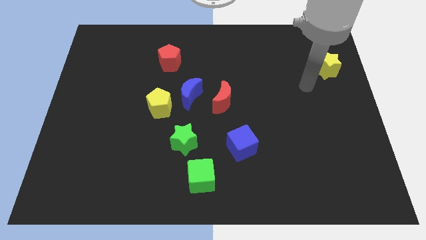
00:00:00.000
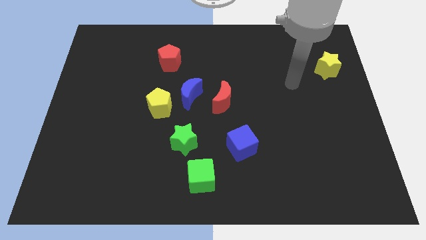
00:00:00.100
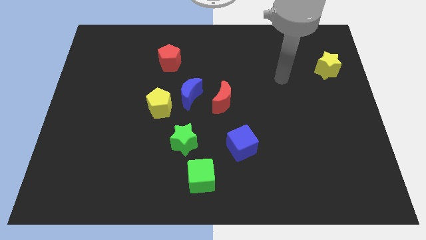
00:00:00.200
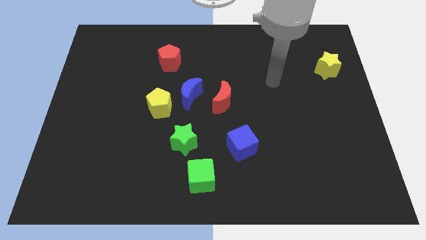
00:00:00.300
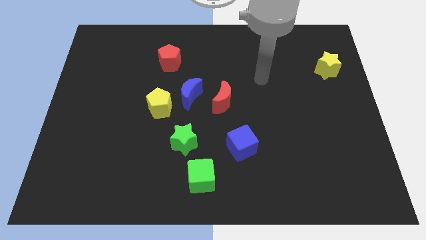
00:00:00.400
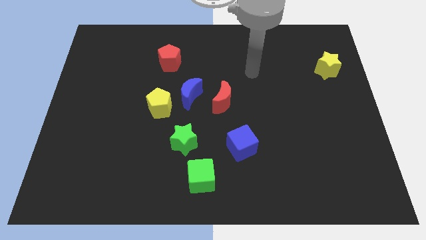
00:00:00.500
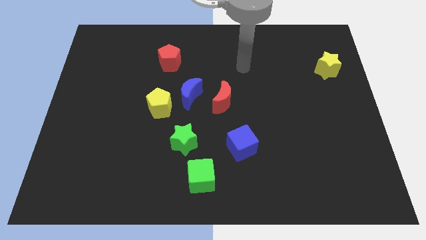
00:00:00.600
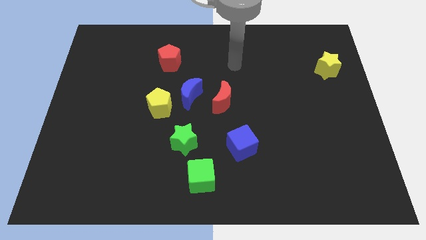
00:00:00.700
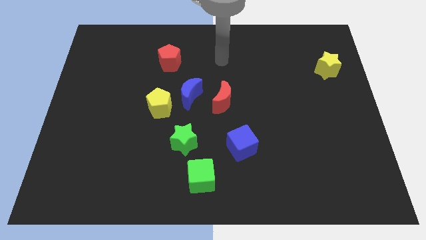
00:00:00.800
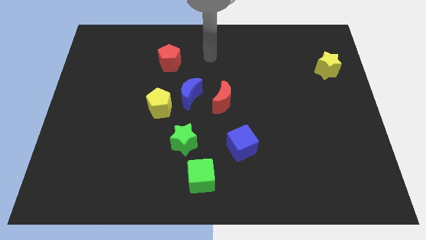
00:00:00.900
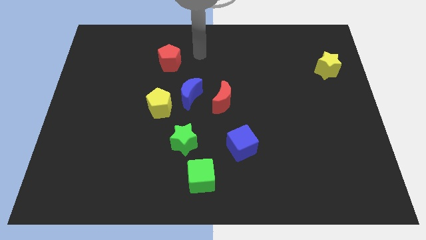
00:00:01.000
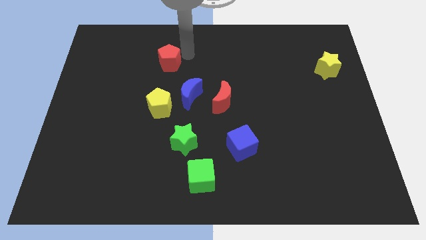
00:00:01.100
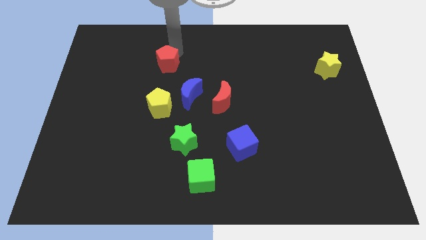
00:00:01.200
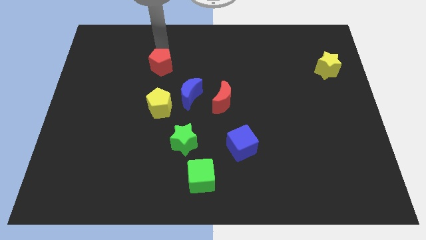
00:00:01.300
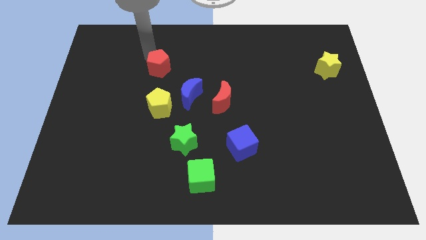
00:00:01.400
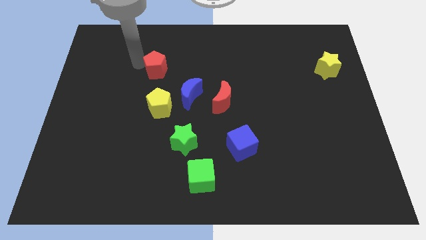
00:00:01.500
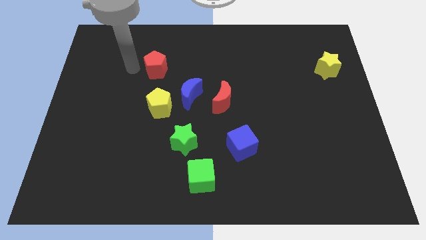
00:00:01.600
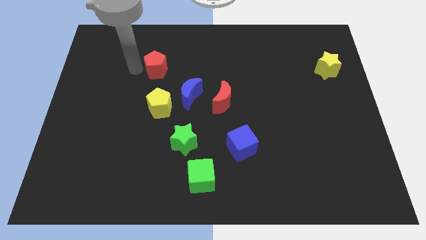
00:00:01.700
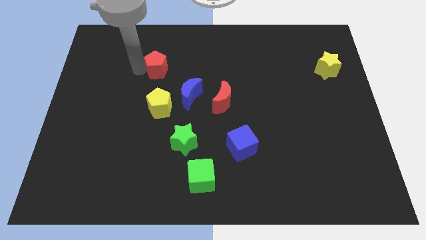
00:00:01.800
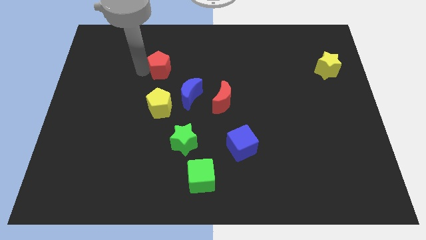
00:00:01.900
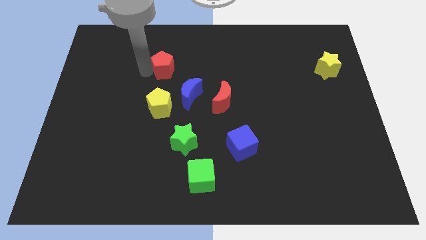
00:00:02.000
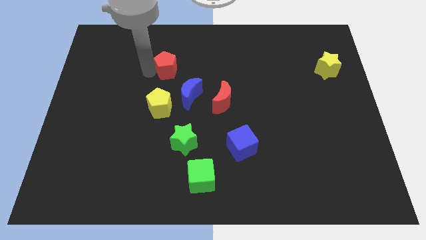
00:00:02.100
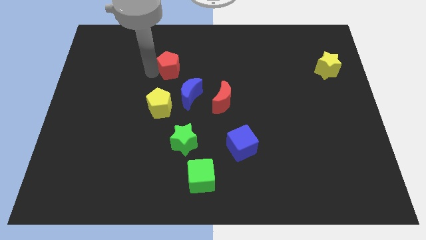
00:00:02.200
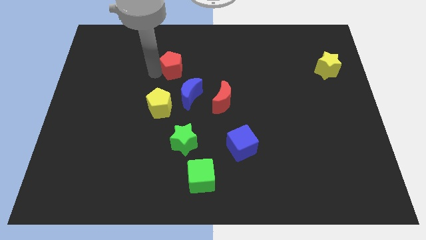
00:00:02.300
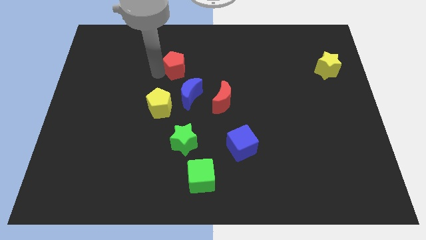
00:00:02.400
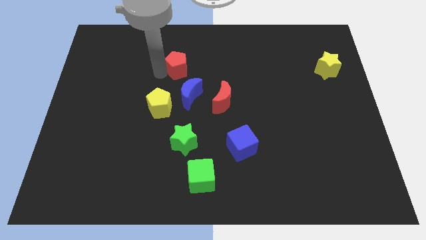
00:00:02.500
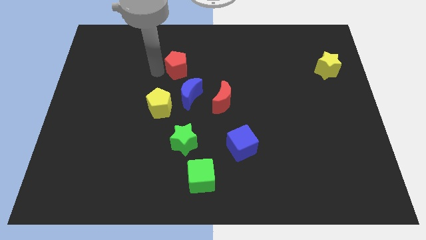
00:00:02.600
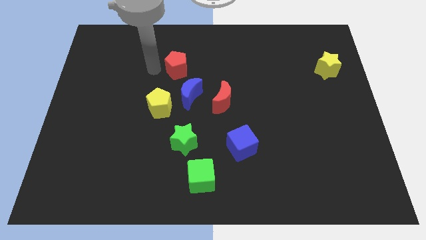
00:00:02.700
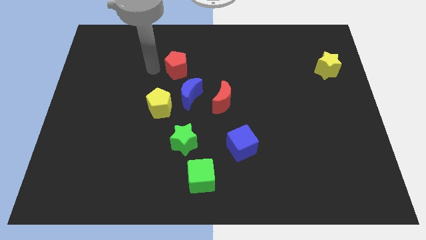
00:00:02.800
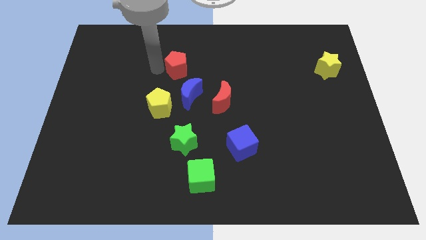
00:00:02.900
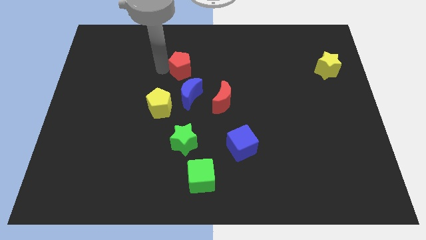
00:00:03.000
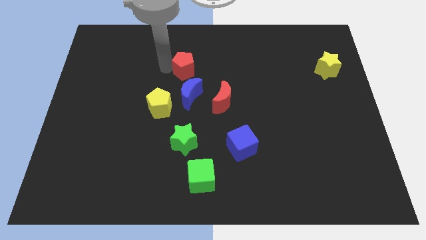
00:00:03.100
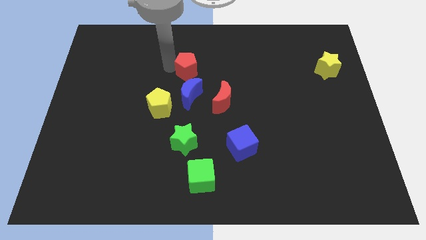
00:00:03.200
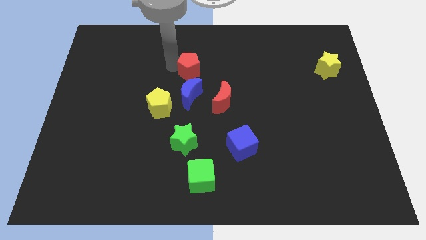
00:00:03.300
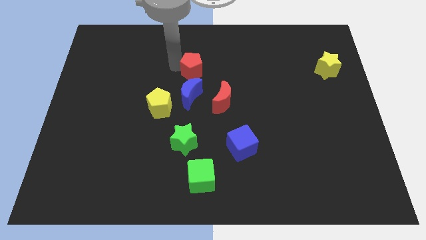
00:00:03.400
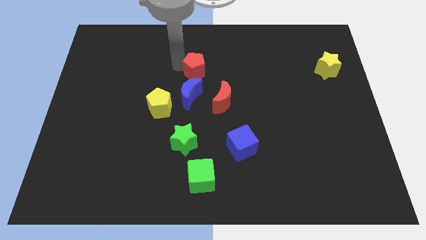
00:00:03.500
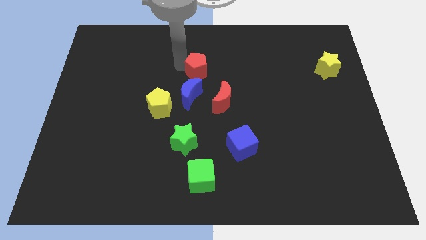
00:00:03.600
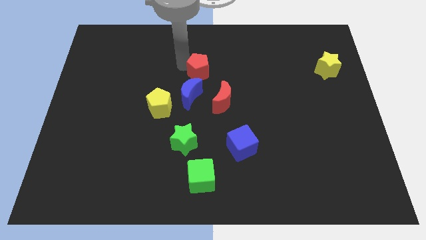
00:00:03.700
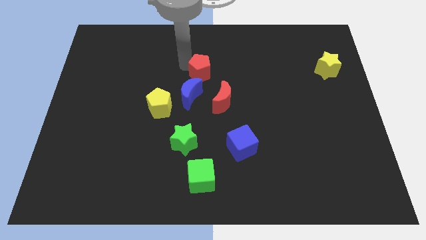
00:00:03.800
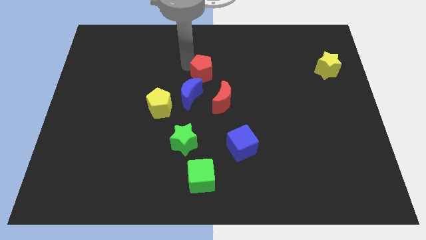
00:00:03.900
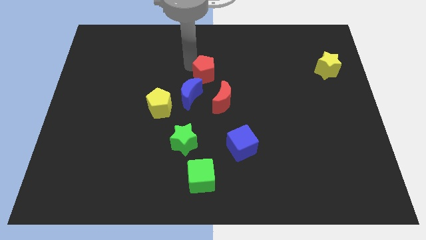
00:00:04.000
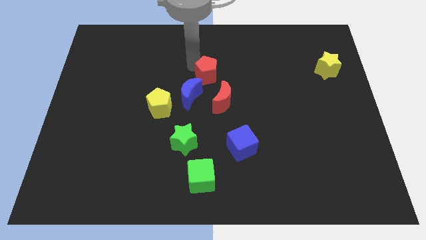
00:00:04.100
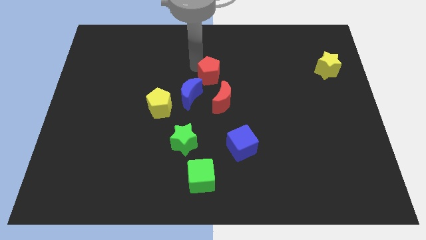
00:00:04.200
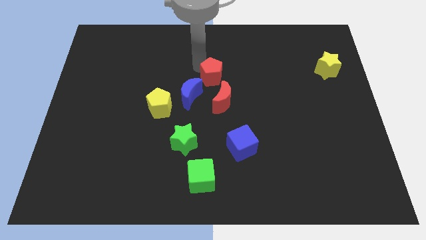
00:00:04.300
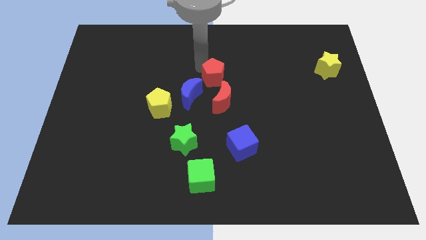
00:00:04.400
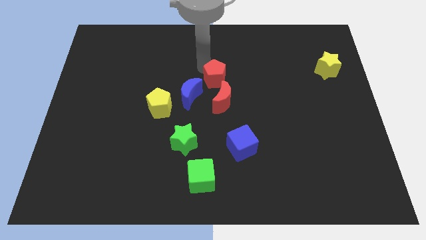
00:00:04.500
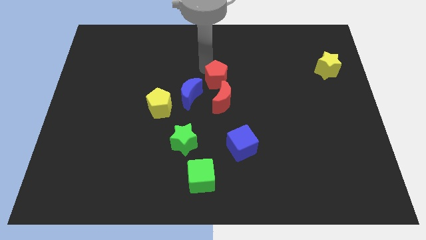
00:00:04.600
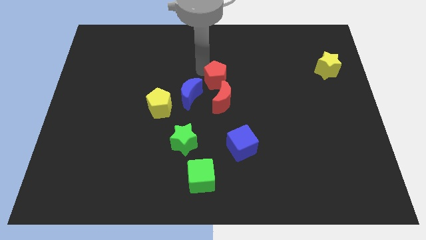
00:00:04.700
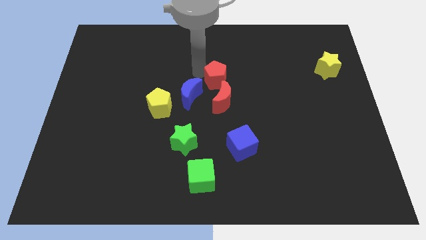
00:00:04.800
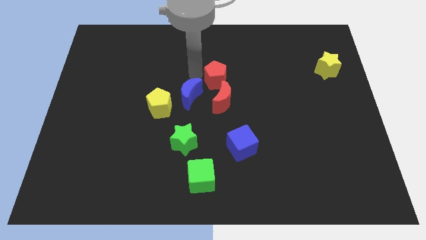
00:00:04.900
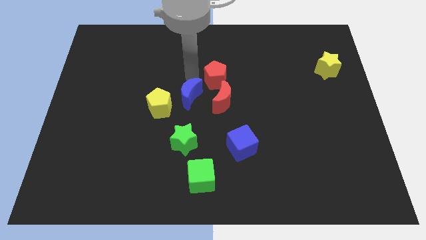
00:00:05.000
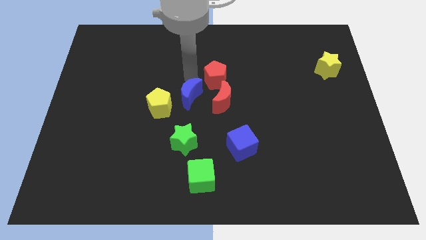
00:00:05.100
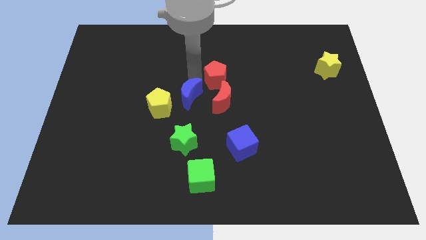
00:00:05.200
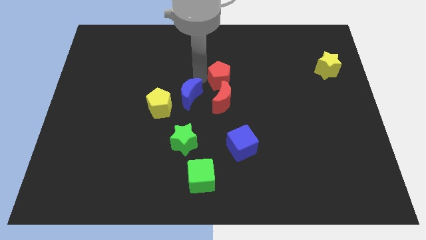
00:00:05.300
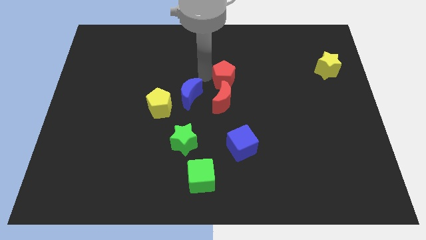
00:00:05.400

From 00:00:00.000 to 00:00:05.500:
push the red pentagon to the top right of the red moon

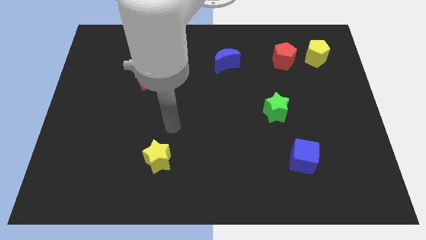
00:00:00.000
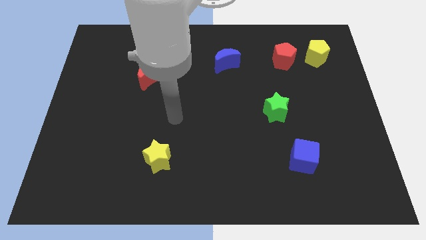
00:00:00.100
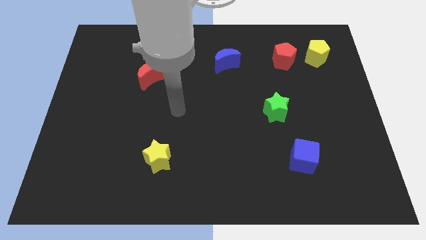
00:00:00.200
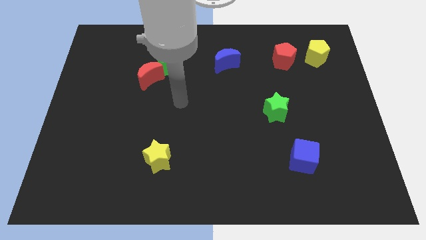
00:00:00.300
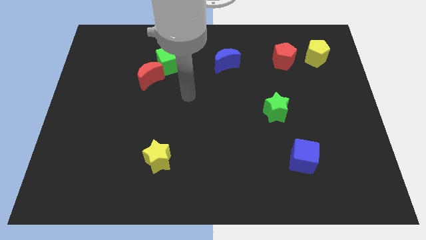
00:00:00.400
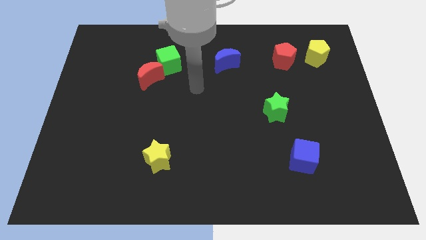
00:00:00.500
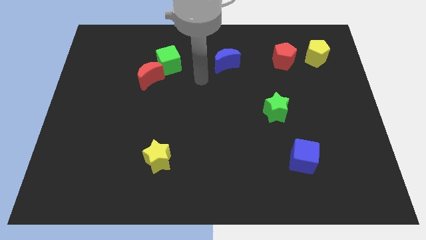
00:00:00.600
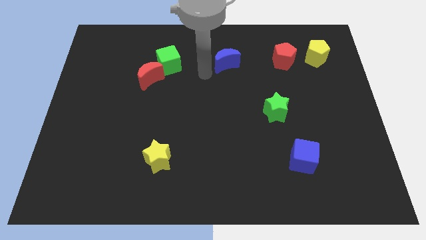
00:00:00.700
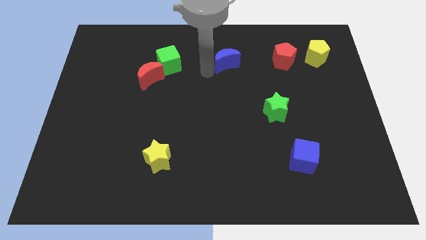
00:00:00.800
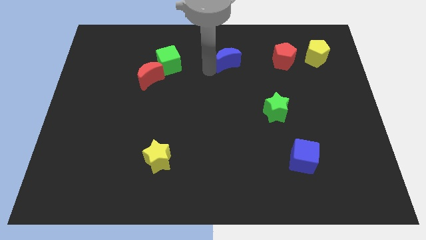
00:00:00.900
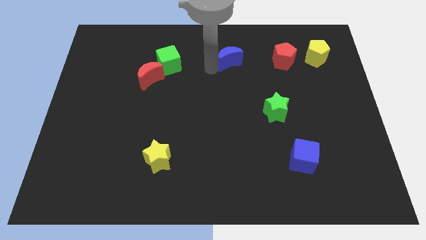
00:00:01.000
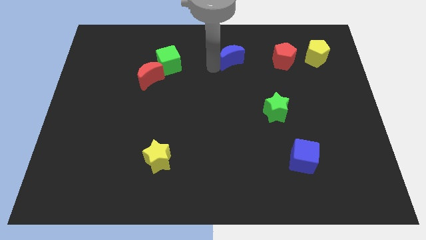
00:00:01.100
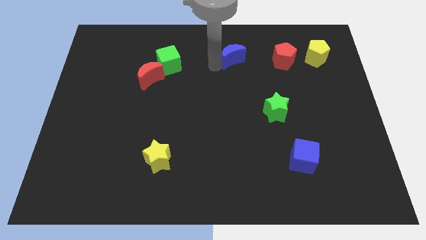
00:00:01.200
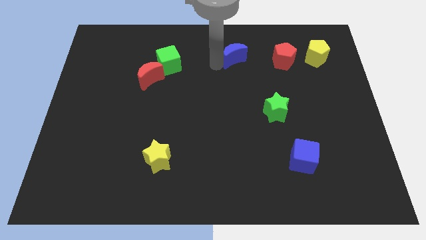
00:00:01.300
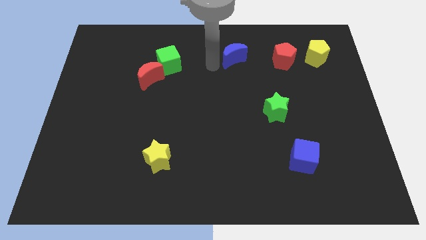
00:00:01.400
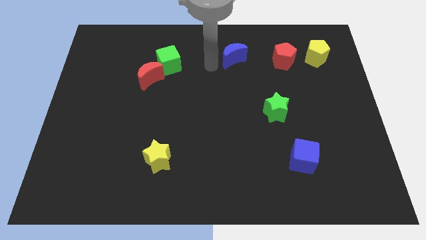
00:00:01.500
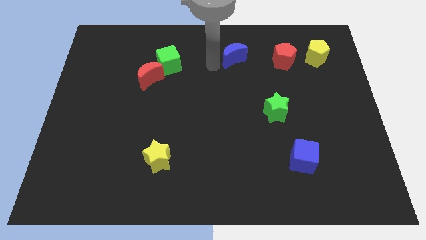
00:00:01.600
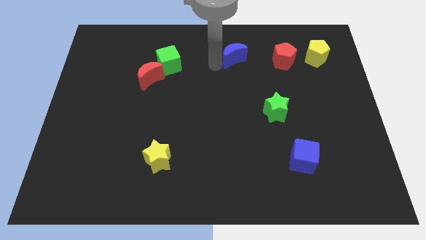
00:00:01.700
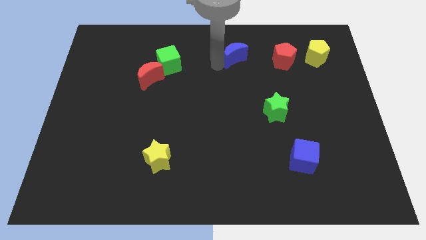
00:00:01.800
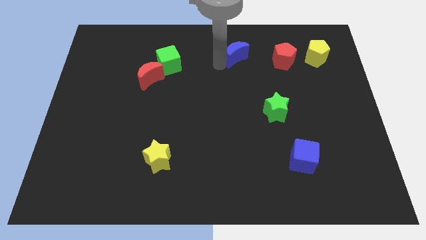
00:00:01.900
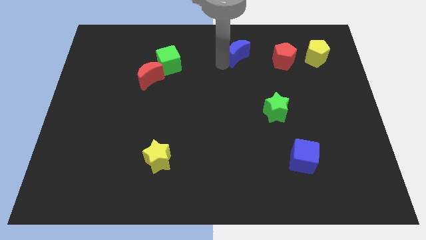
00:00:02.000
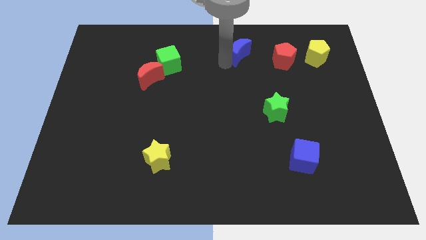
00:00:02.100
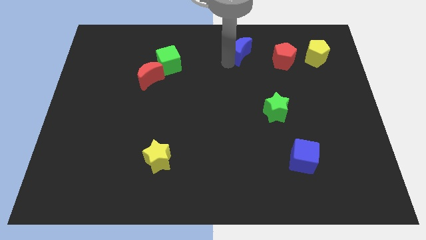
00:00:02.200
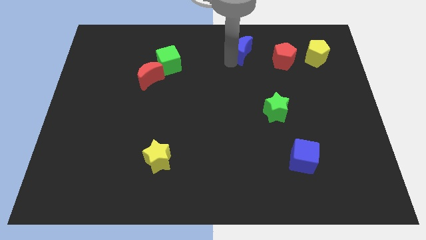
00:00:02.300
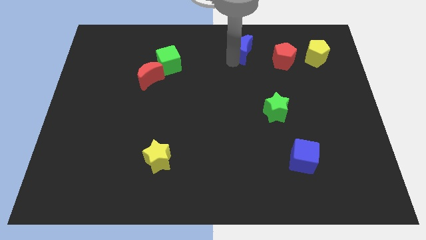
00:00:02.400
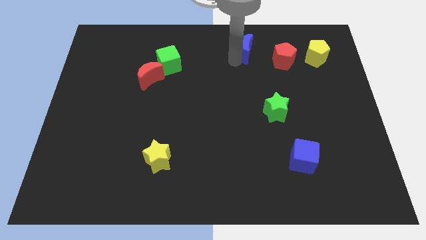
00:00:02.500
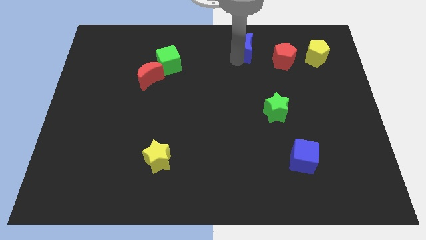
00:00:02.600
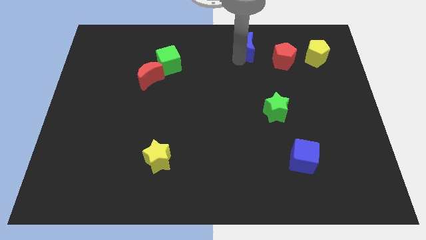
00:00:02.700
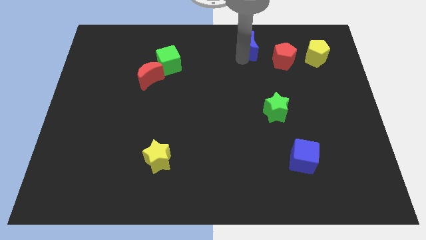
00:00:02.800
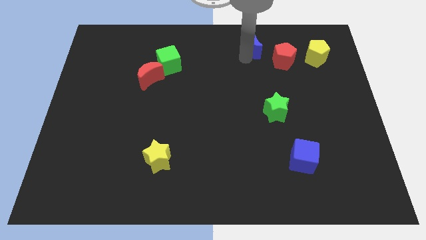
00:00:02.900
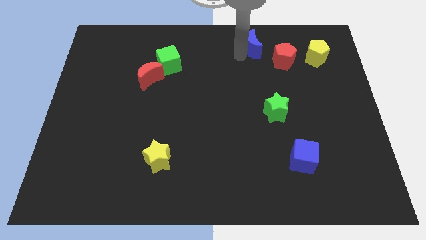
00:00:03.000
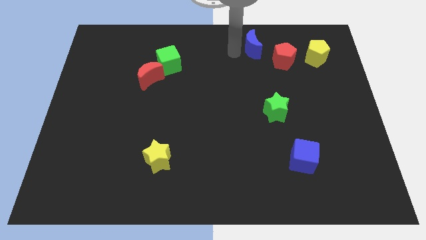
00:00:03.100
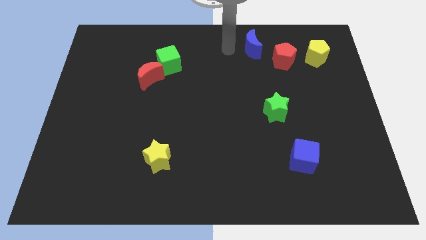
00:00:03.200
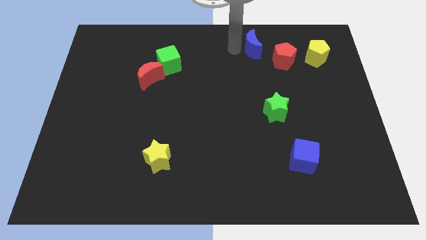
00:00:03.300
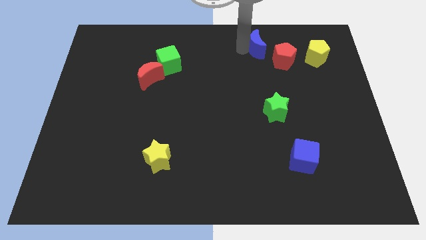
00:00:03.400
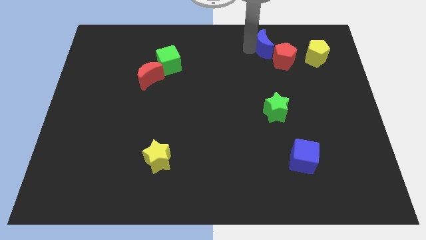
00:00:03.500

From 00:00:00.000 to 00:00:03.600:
push the blue moon to the left side of the yellow pentagon
